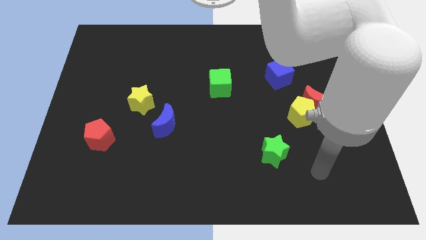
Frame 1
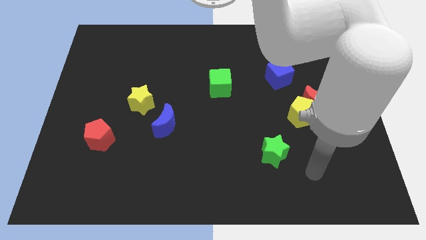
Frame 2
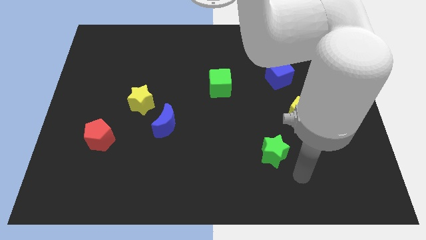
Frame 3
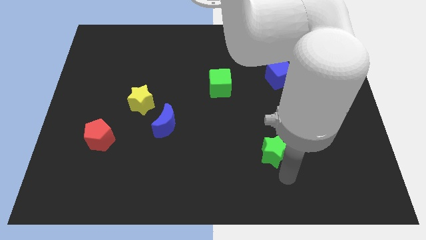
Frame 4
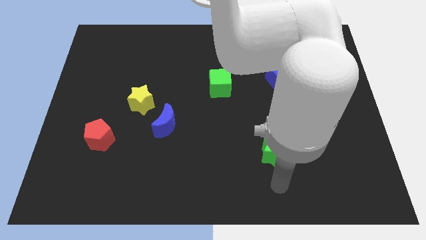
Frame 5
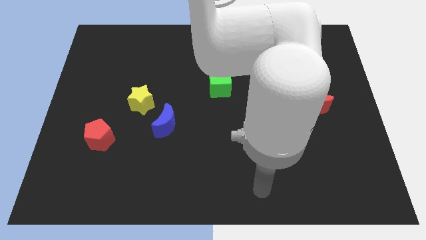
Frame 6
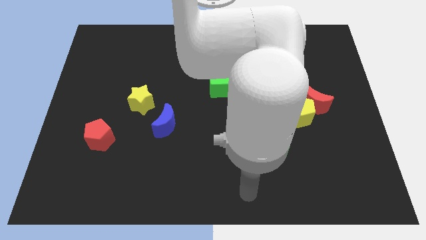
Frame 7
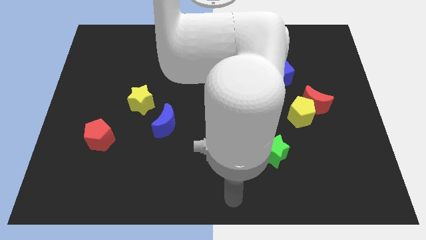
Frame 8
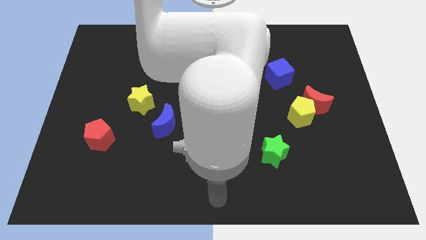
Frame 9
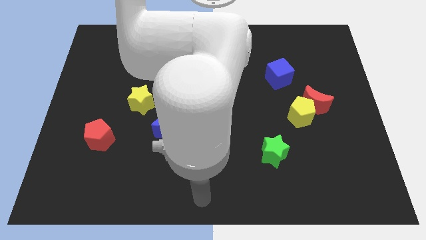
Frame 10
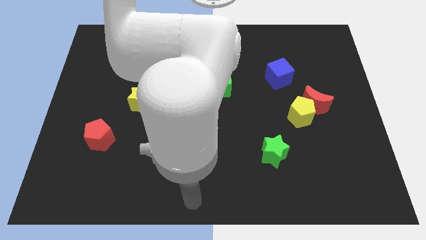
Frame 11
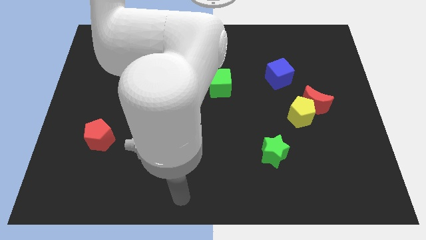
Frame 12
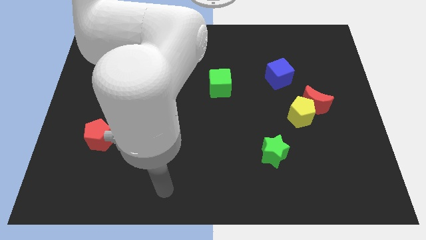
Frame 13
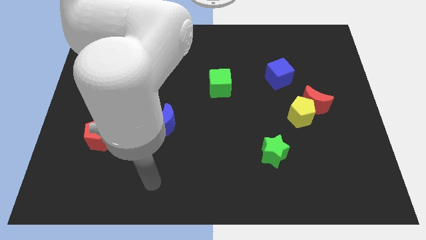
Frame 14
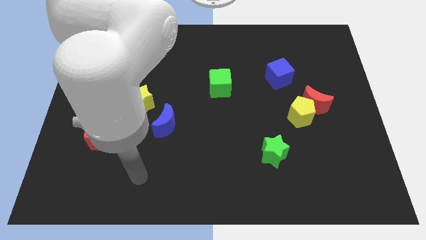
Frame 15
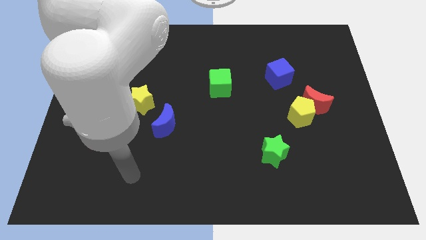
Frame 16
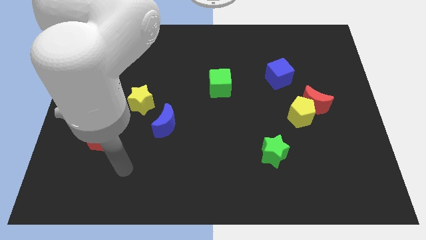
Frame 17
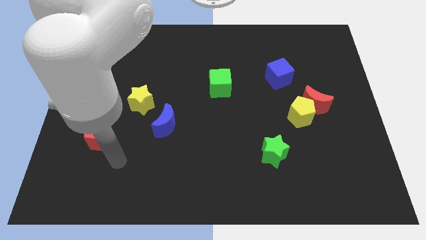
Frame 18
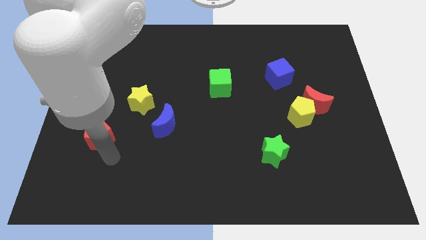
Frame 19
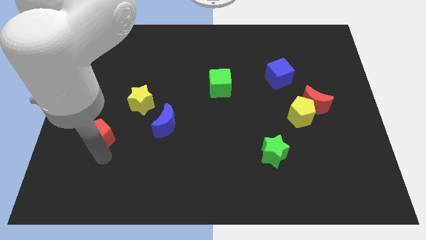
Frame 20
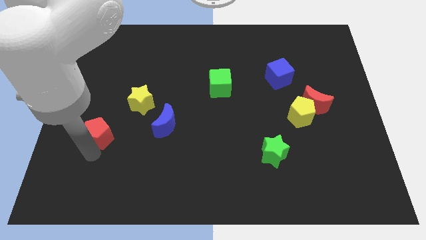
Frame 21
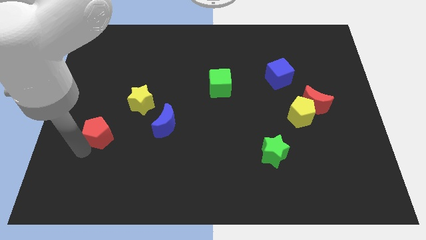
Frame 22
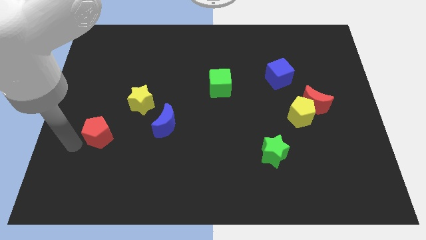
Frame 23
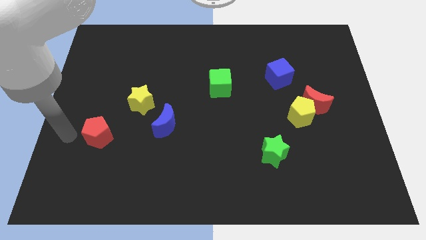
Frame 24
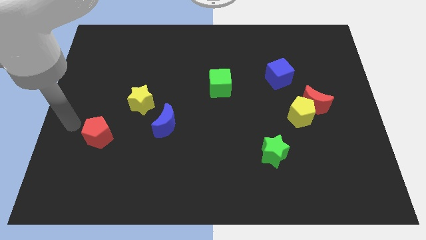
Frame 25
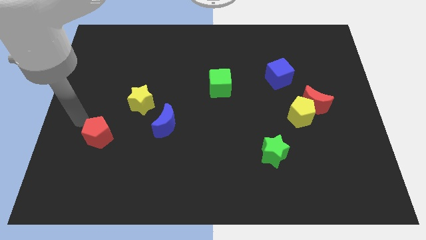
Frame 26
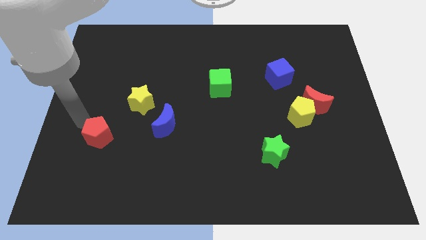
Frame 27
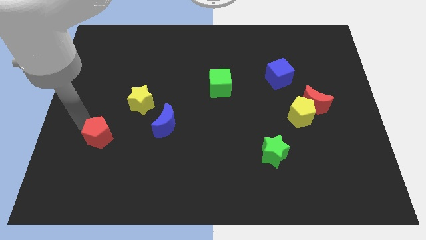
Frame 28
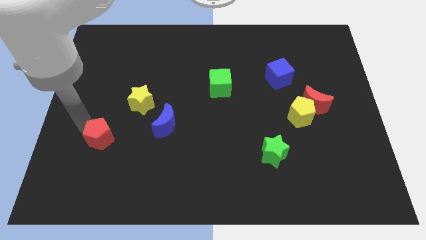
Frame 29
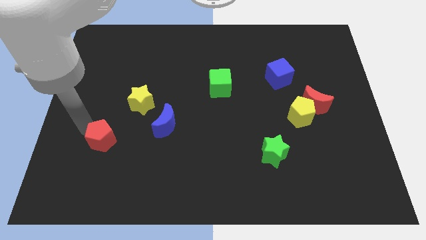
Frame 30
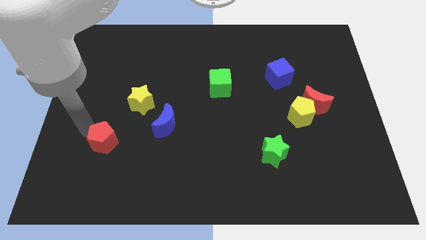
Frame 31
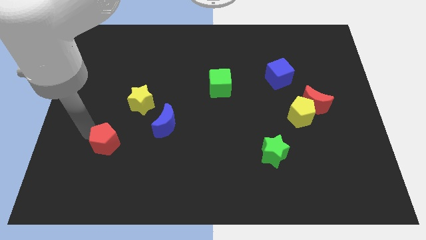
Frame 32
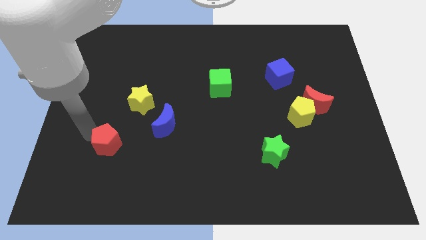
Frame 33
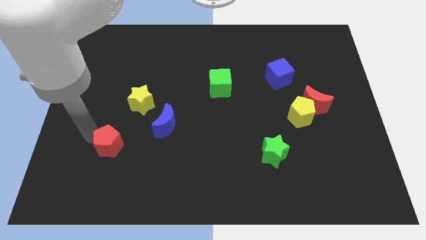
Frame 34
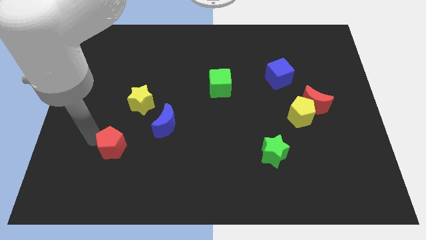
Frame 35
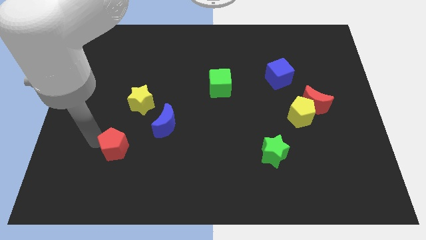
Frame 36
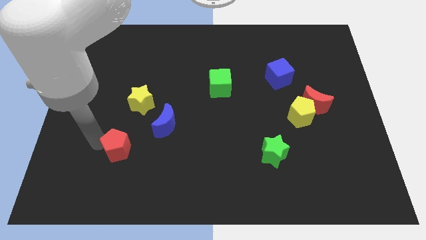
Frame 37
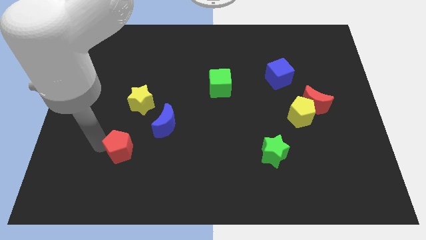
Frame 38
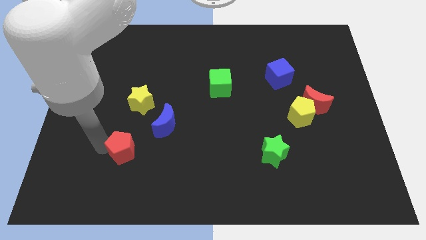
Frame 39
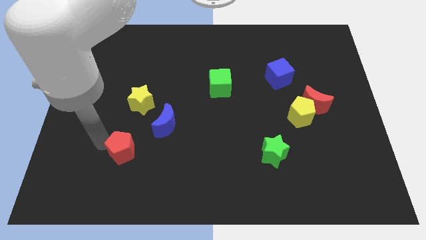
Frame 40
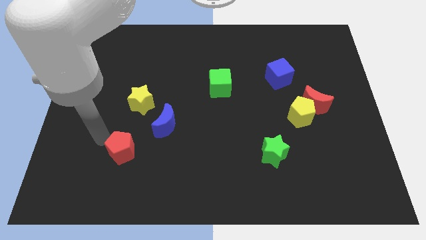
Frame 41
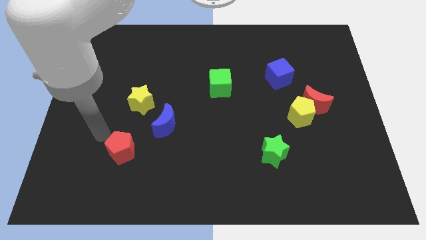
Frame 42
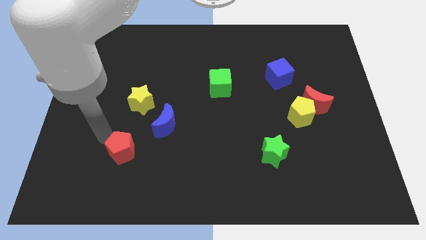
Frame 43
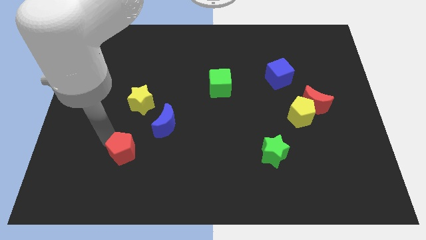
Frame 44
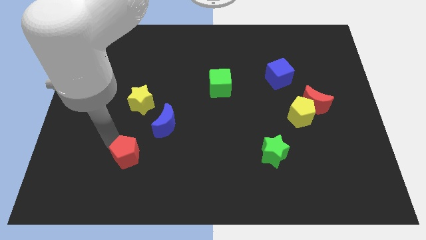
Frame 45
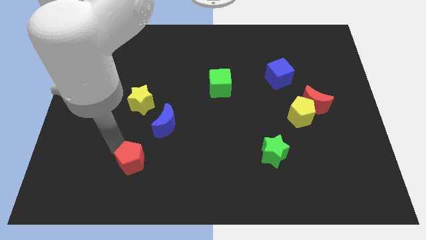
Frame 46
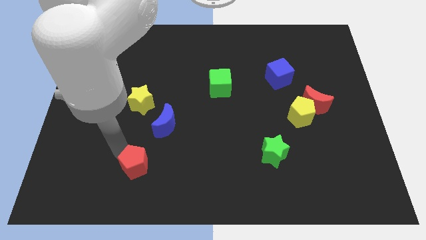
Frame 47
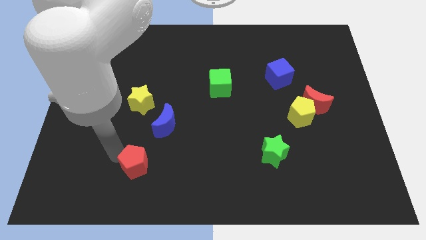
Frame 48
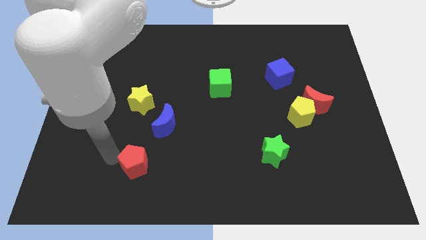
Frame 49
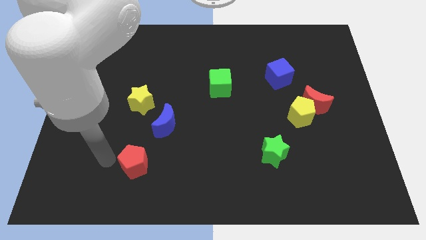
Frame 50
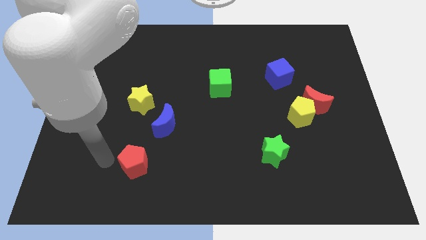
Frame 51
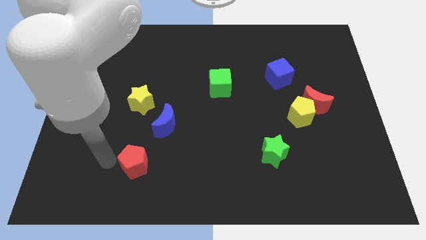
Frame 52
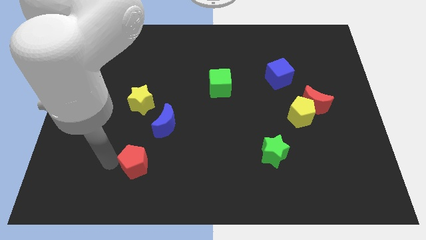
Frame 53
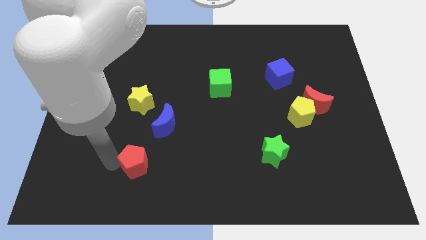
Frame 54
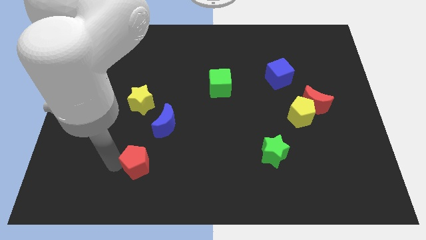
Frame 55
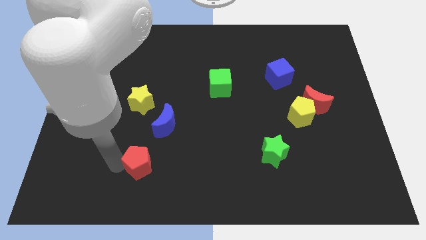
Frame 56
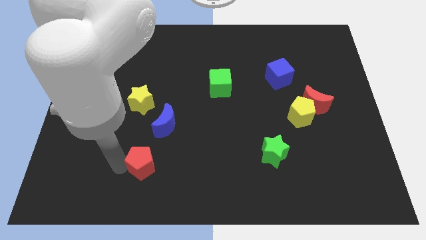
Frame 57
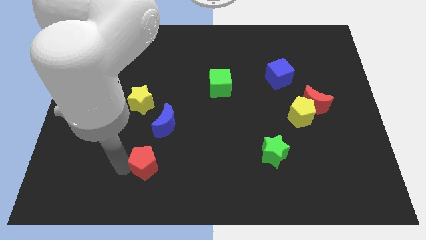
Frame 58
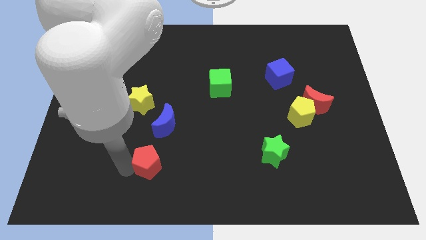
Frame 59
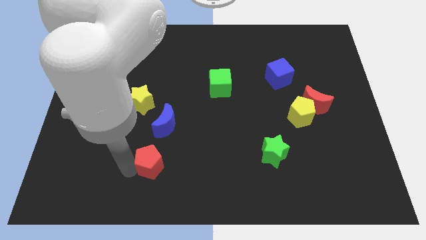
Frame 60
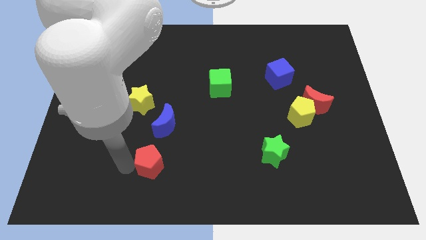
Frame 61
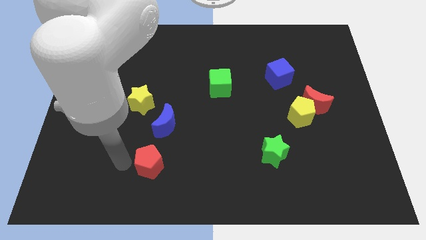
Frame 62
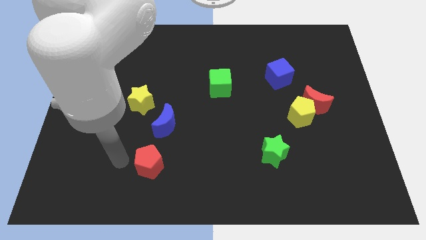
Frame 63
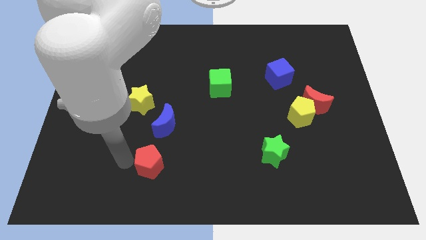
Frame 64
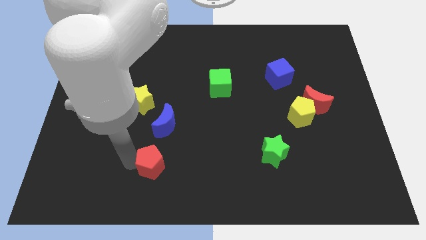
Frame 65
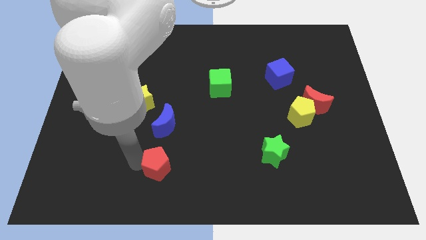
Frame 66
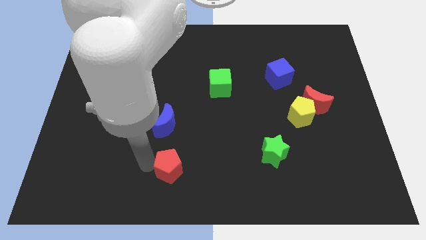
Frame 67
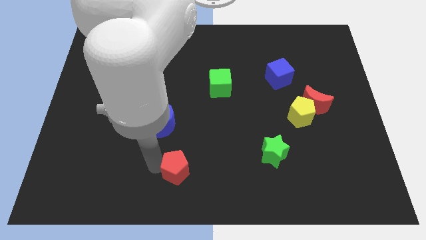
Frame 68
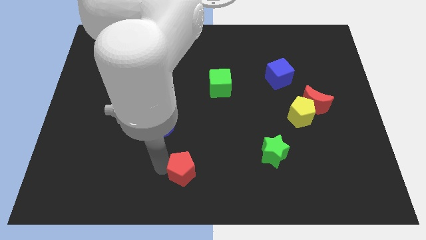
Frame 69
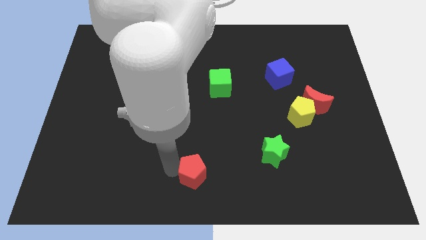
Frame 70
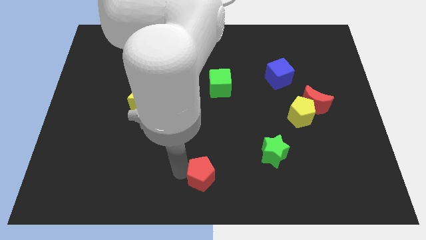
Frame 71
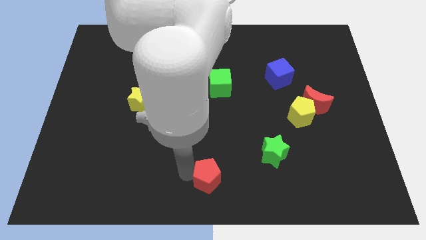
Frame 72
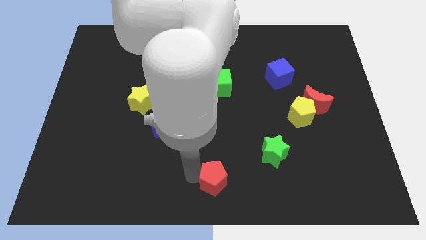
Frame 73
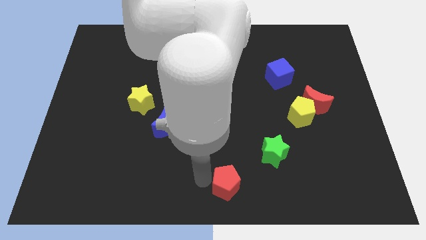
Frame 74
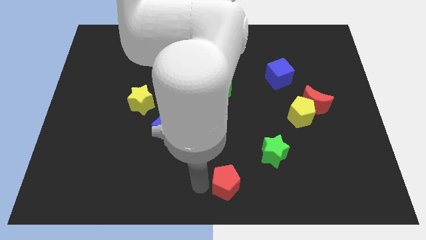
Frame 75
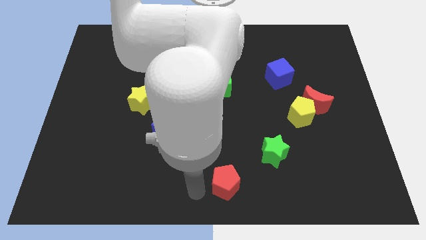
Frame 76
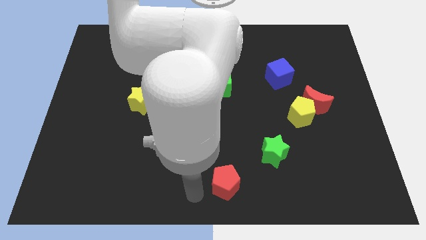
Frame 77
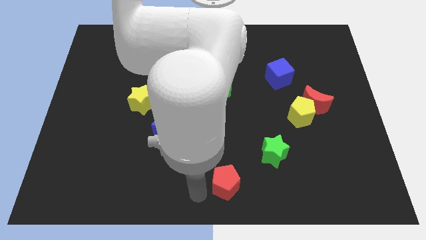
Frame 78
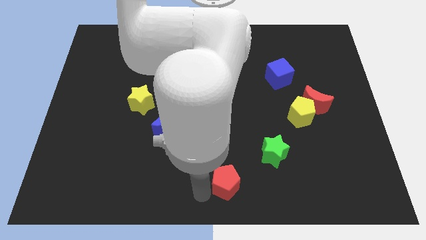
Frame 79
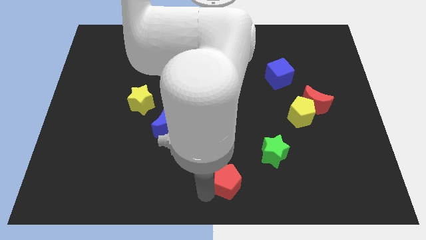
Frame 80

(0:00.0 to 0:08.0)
put the red pentagon to the bottom left side of the green star
